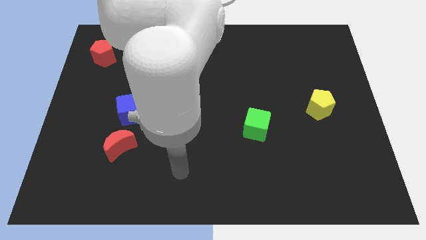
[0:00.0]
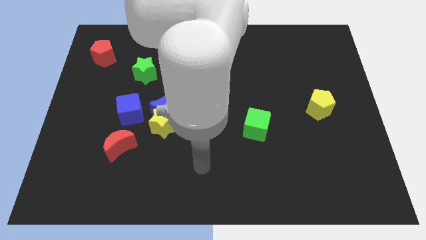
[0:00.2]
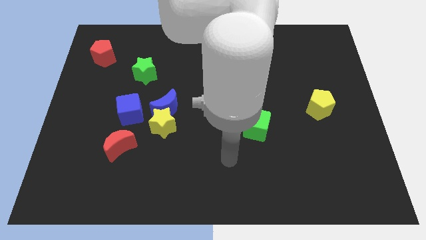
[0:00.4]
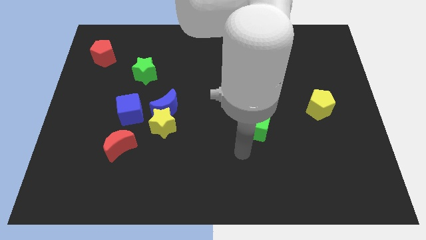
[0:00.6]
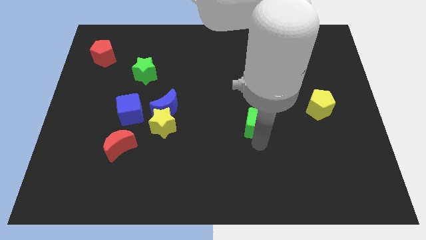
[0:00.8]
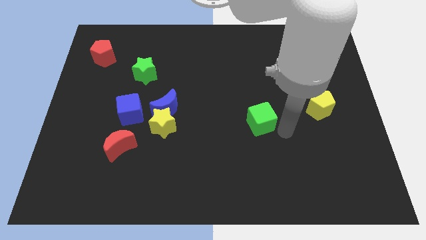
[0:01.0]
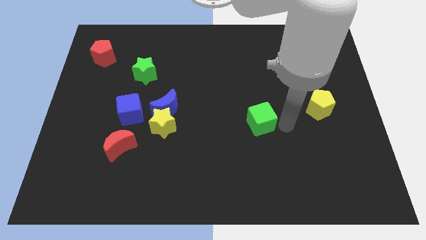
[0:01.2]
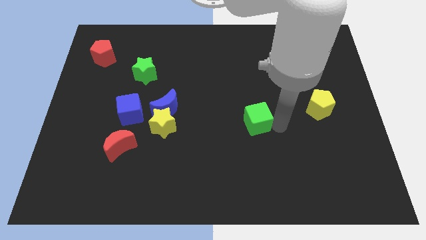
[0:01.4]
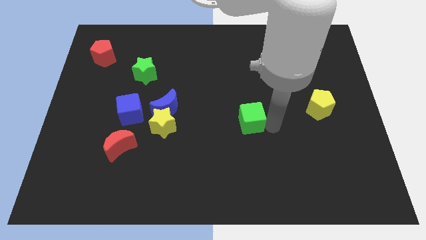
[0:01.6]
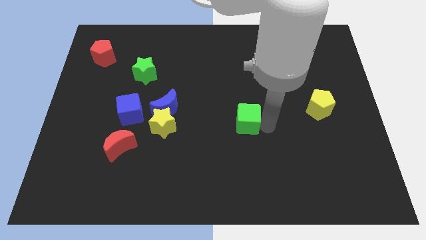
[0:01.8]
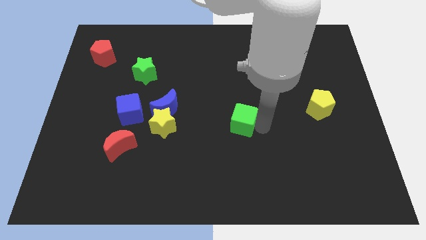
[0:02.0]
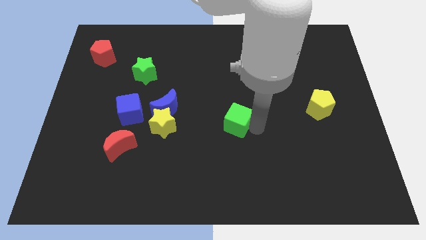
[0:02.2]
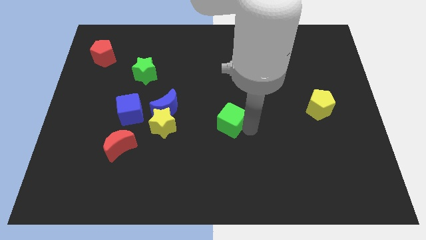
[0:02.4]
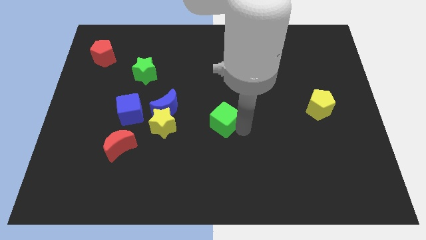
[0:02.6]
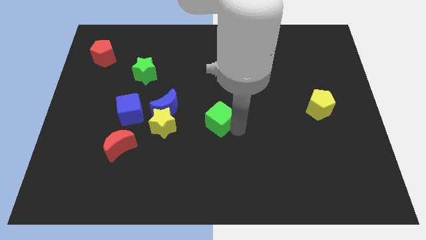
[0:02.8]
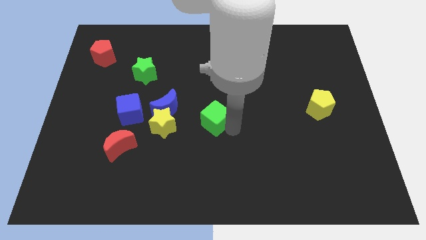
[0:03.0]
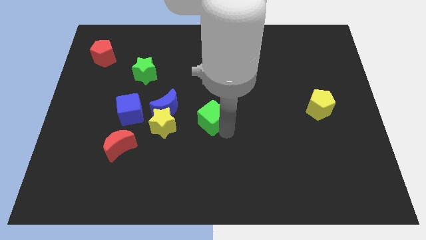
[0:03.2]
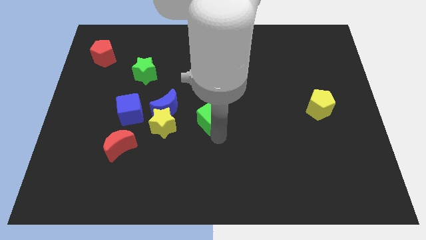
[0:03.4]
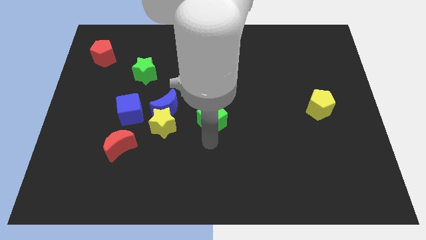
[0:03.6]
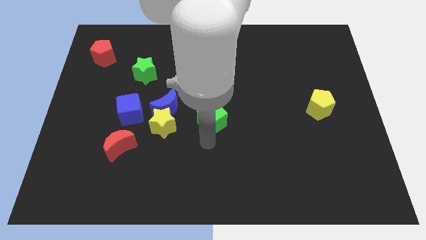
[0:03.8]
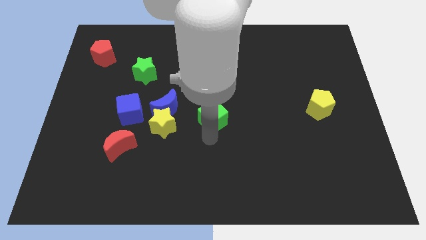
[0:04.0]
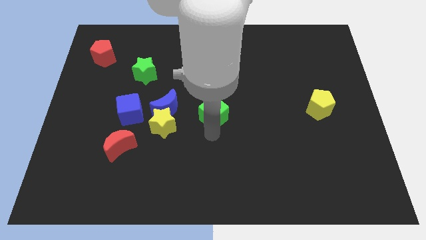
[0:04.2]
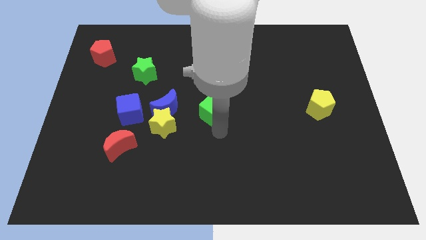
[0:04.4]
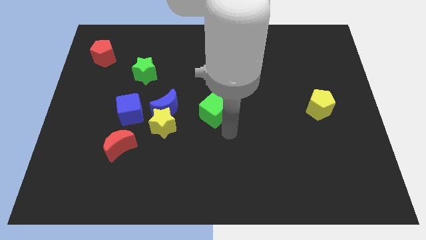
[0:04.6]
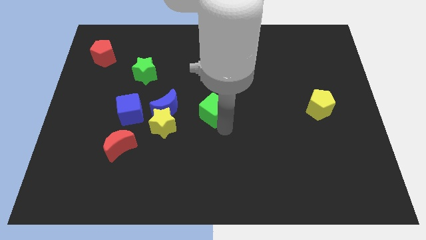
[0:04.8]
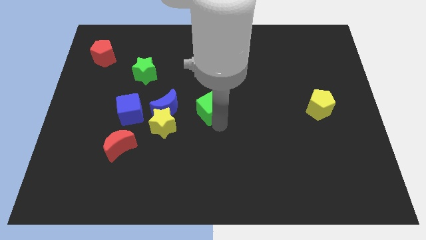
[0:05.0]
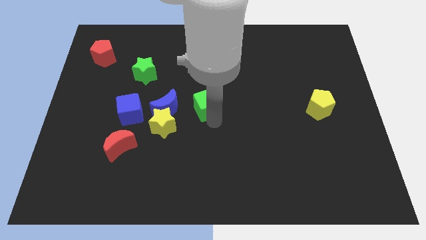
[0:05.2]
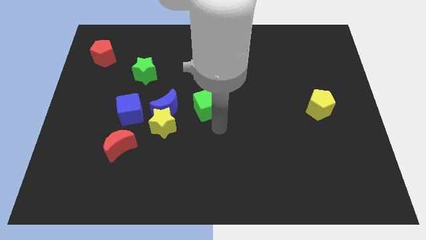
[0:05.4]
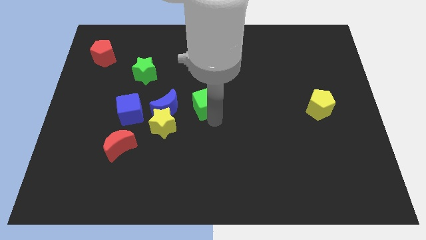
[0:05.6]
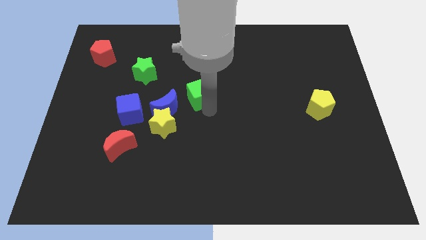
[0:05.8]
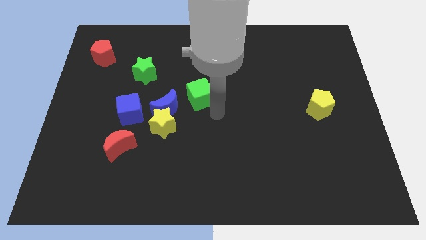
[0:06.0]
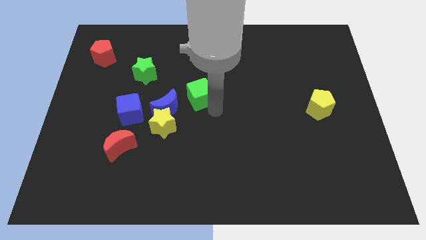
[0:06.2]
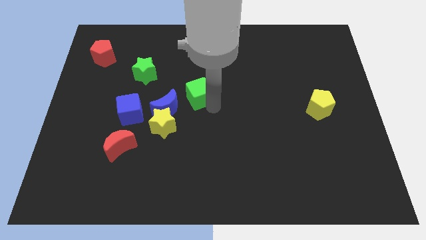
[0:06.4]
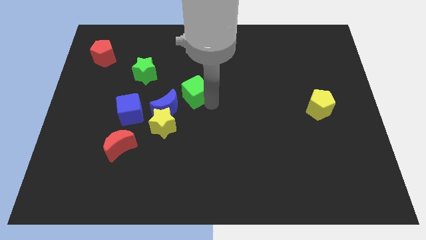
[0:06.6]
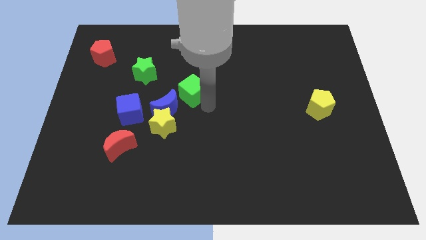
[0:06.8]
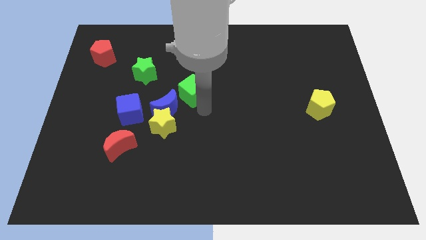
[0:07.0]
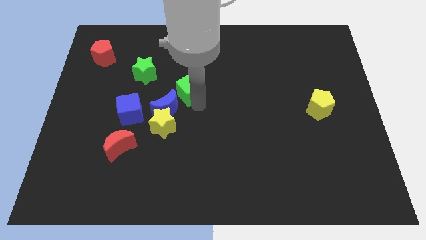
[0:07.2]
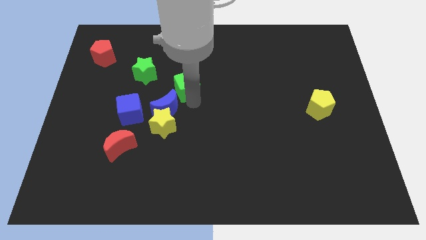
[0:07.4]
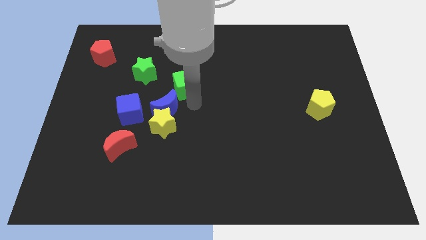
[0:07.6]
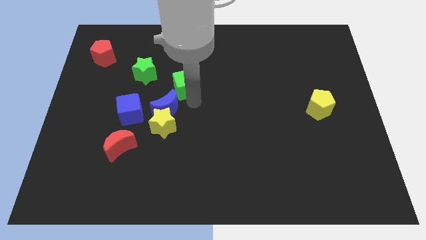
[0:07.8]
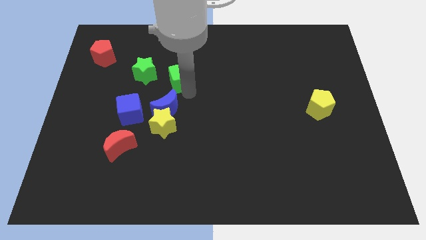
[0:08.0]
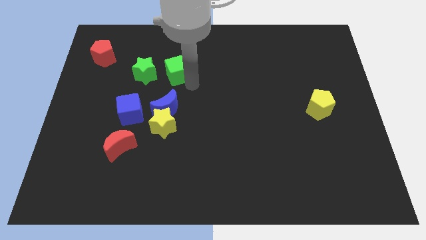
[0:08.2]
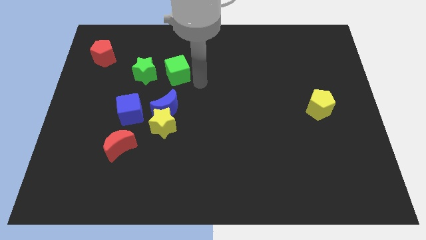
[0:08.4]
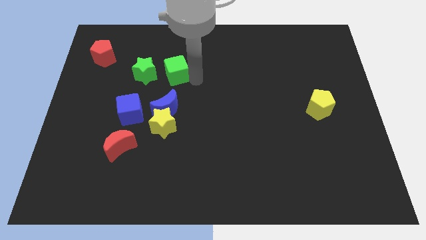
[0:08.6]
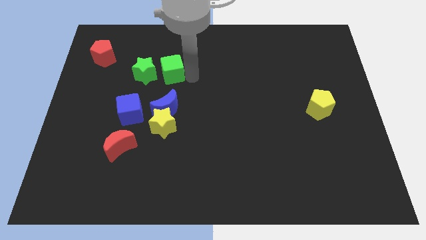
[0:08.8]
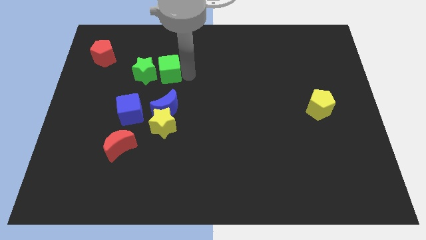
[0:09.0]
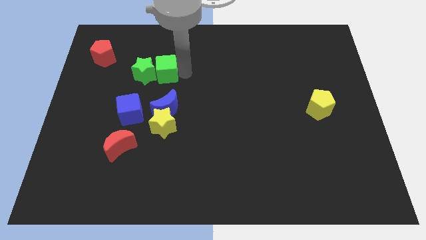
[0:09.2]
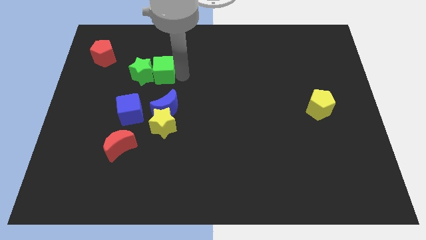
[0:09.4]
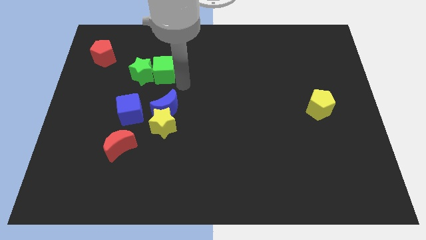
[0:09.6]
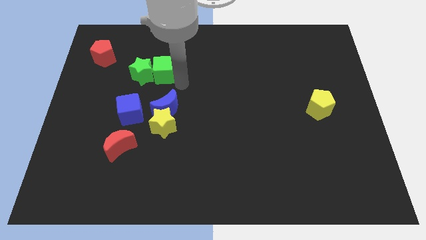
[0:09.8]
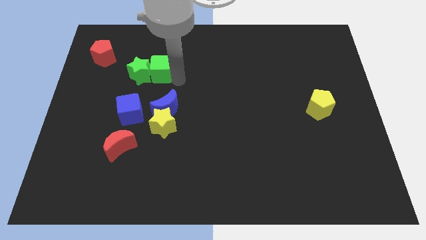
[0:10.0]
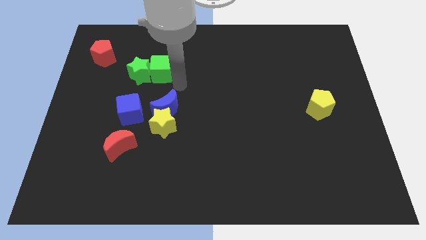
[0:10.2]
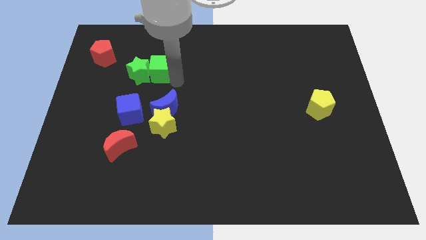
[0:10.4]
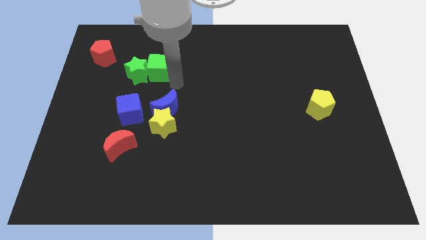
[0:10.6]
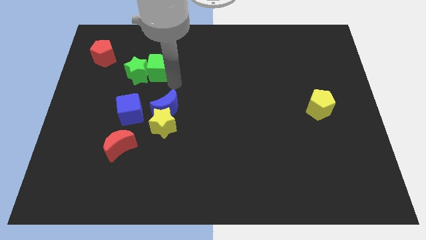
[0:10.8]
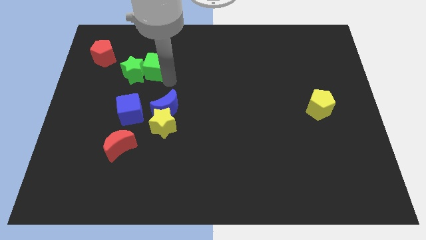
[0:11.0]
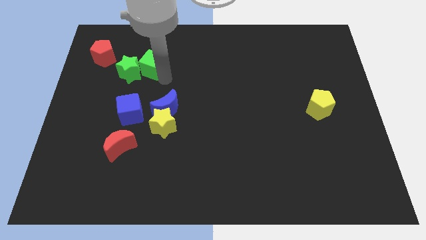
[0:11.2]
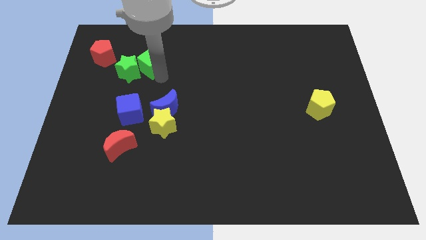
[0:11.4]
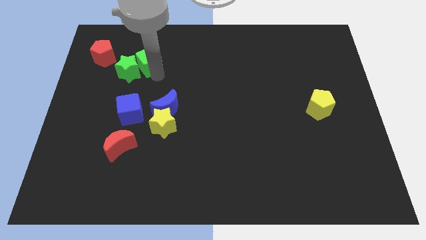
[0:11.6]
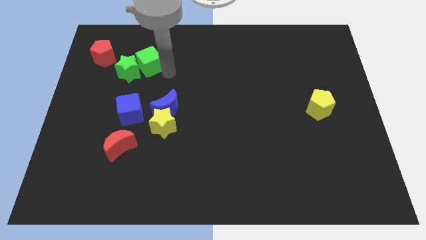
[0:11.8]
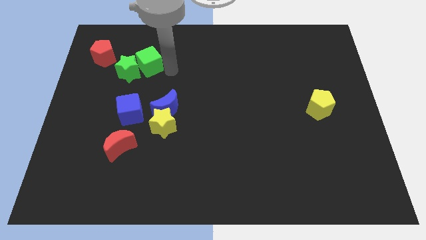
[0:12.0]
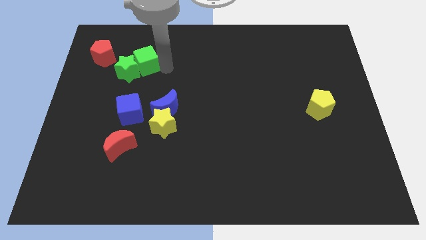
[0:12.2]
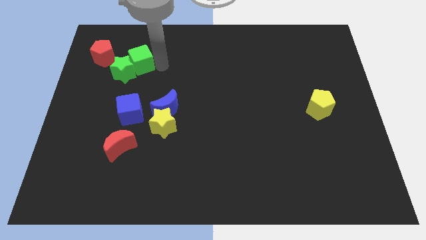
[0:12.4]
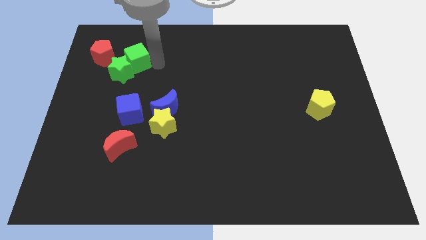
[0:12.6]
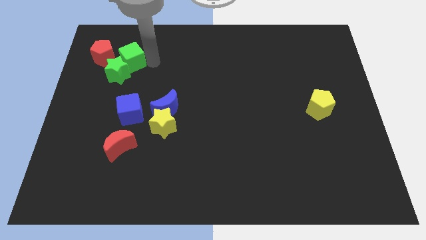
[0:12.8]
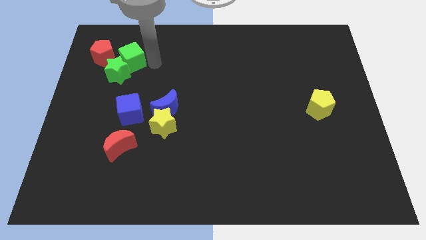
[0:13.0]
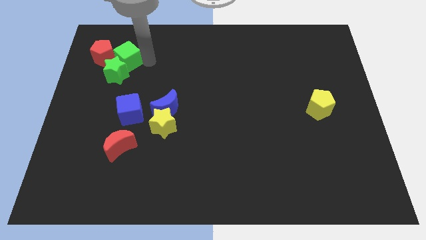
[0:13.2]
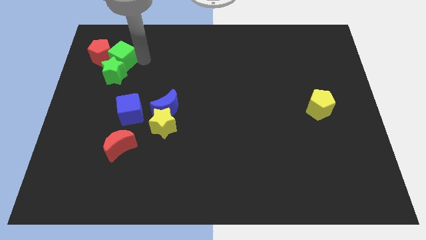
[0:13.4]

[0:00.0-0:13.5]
slide the green cube to the red pentagon

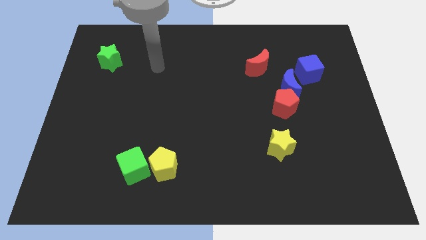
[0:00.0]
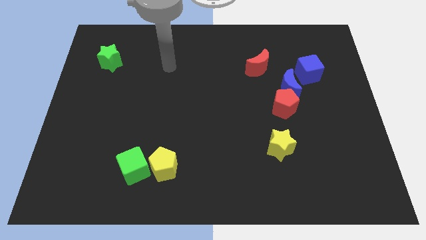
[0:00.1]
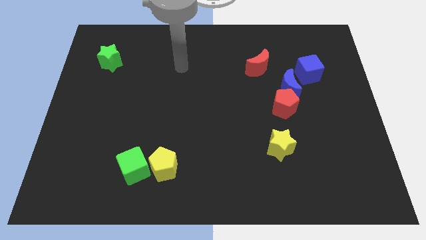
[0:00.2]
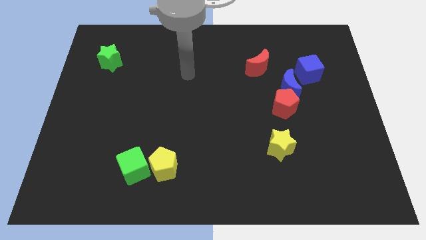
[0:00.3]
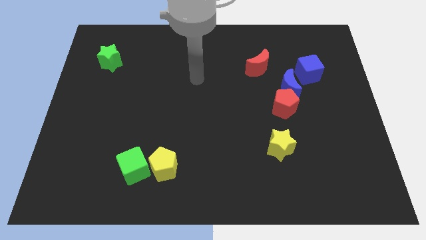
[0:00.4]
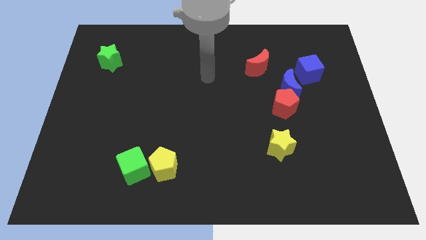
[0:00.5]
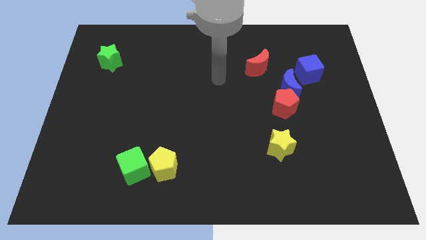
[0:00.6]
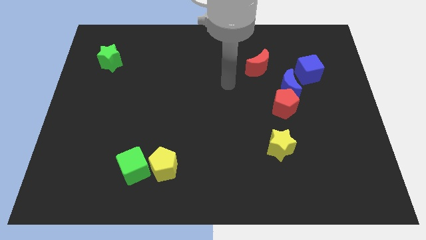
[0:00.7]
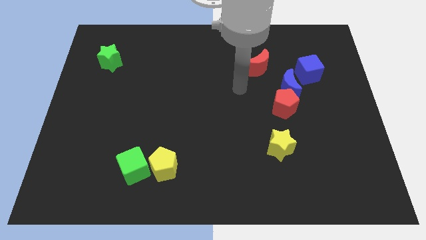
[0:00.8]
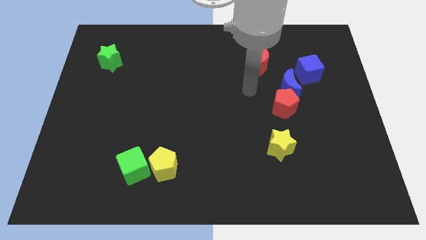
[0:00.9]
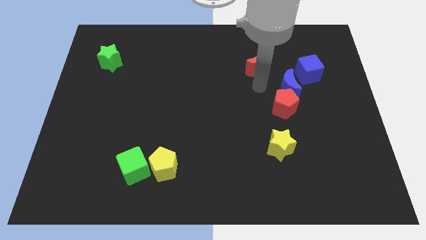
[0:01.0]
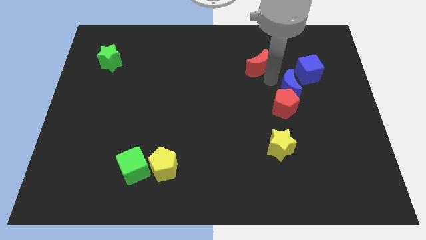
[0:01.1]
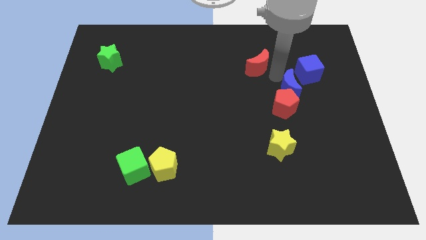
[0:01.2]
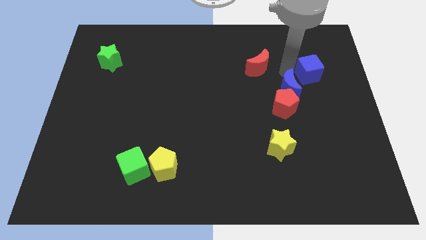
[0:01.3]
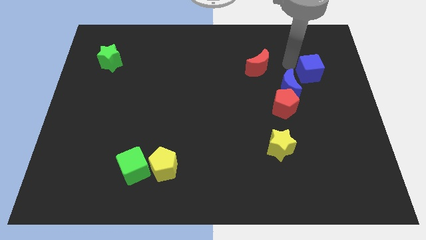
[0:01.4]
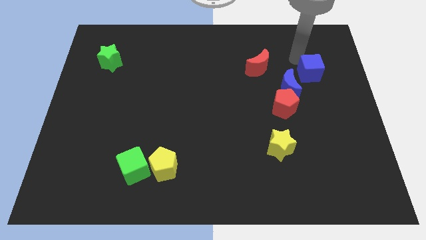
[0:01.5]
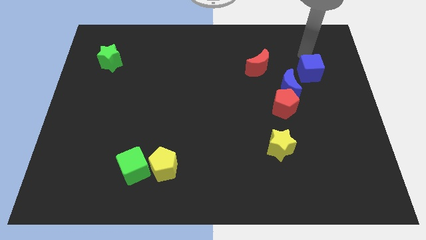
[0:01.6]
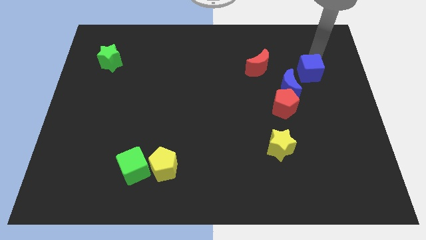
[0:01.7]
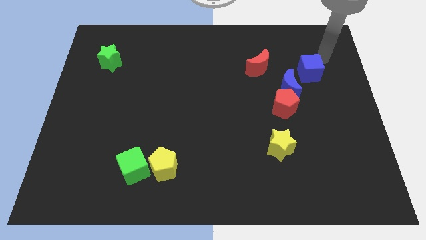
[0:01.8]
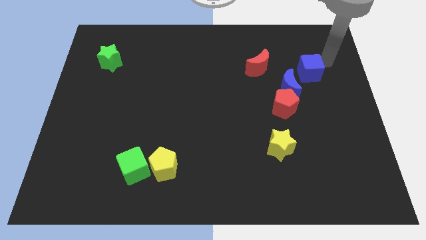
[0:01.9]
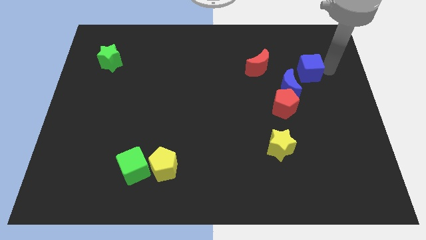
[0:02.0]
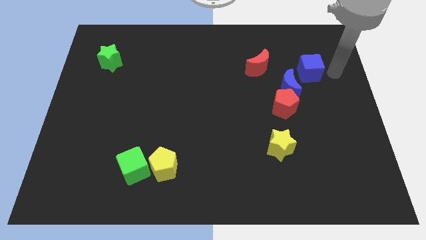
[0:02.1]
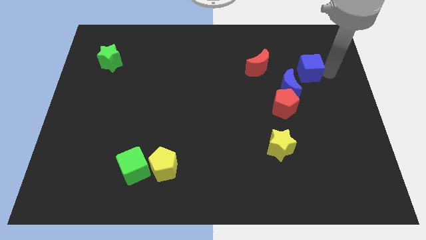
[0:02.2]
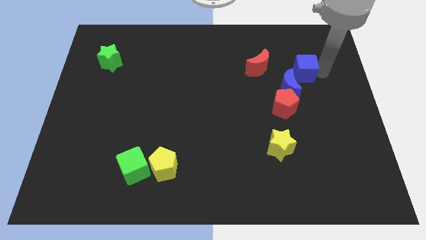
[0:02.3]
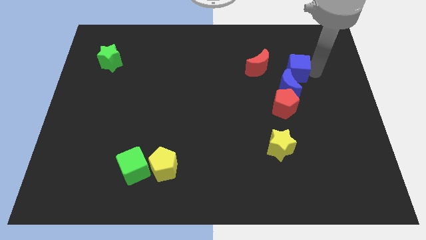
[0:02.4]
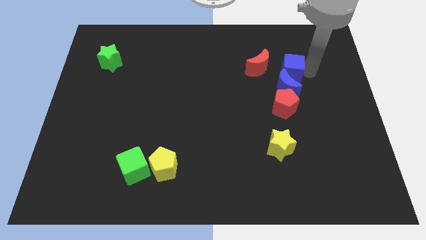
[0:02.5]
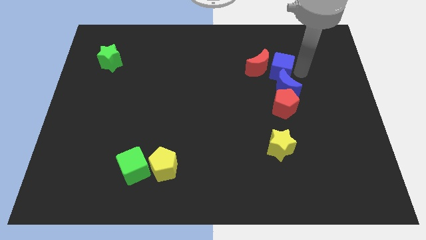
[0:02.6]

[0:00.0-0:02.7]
move the blue cube to the red moon
